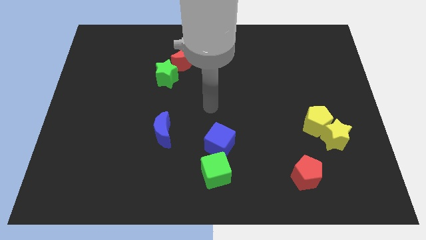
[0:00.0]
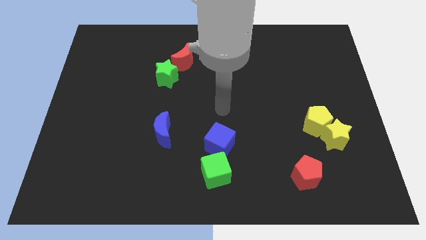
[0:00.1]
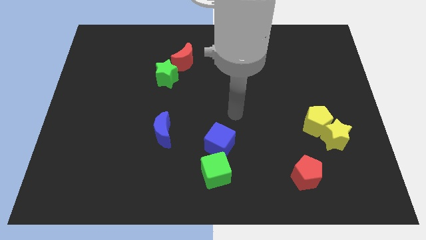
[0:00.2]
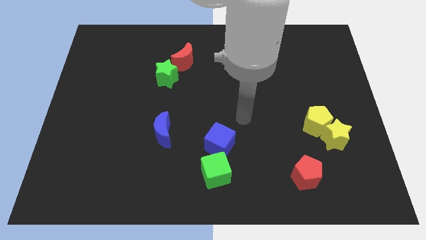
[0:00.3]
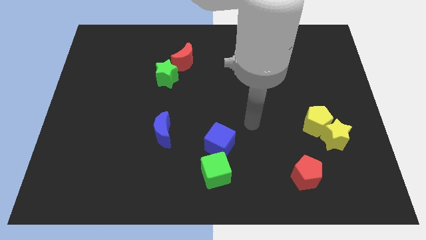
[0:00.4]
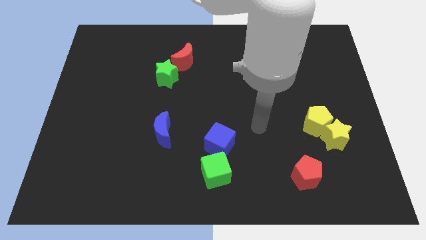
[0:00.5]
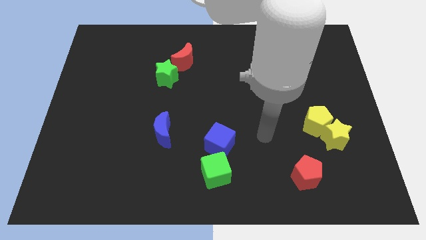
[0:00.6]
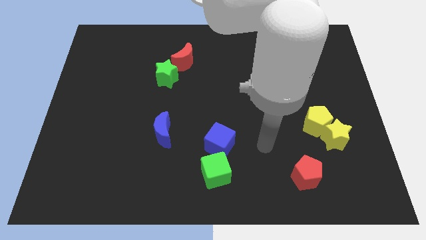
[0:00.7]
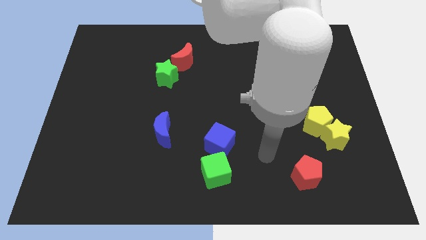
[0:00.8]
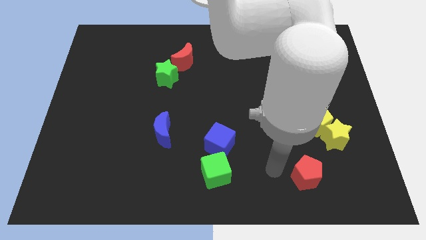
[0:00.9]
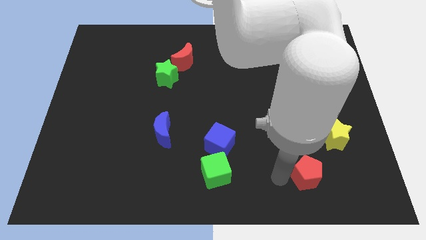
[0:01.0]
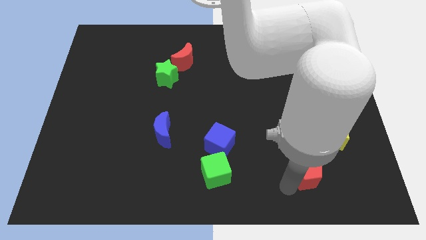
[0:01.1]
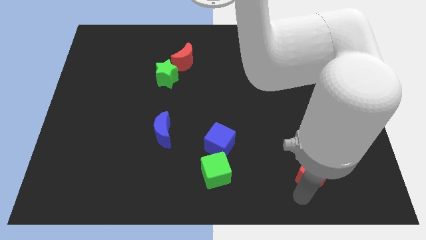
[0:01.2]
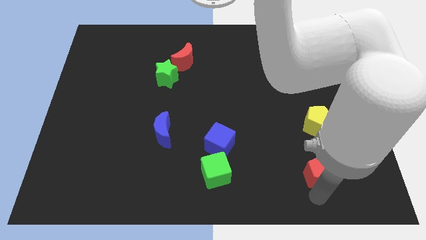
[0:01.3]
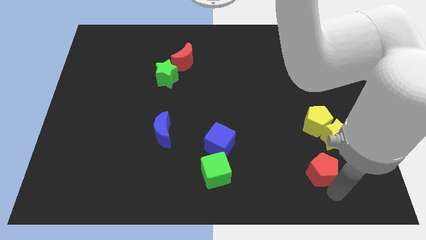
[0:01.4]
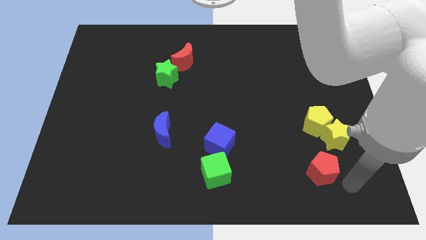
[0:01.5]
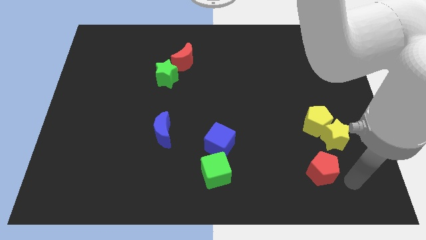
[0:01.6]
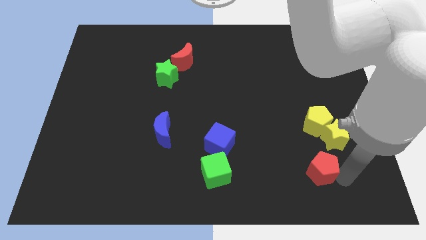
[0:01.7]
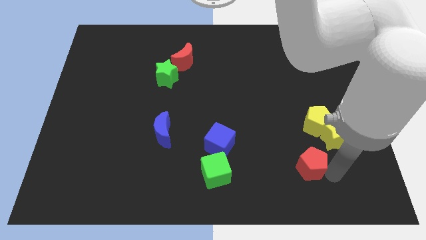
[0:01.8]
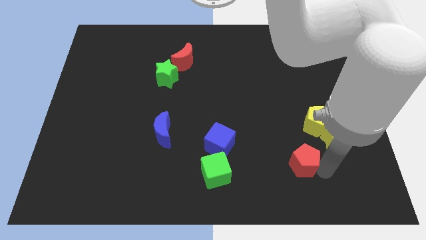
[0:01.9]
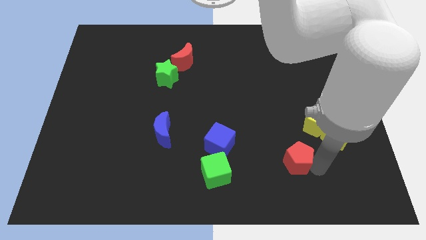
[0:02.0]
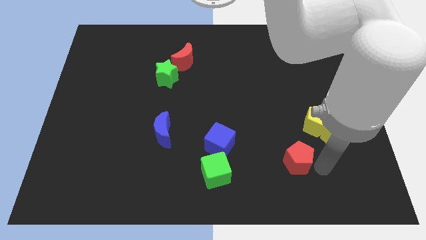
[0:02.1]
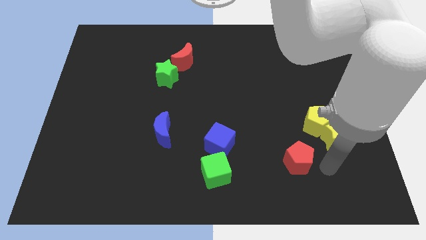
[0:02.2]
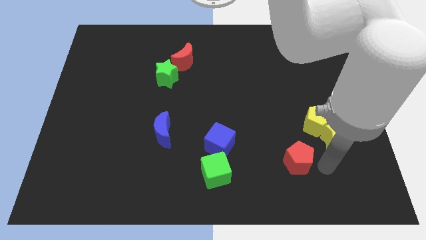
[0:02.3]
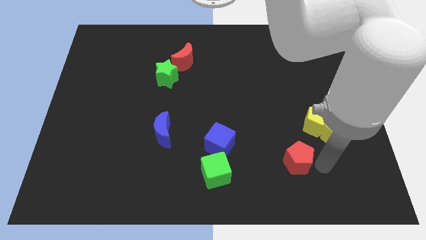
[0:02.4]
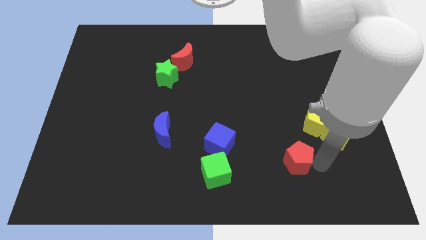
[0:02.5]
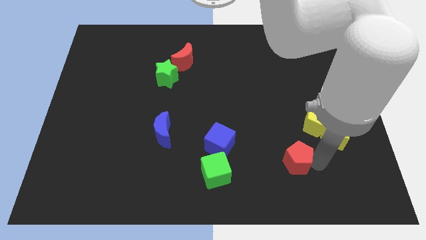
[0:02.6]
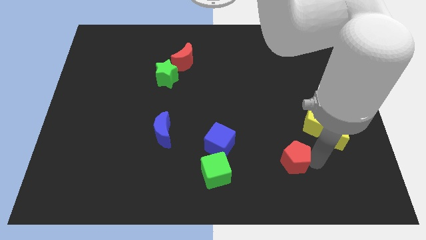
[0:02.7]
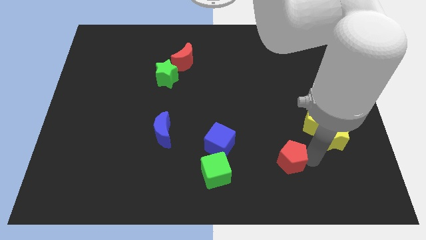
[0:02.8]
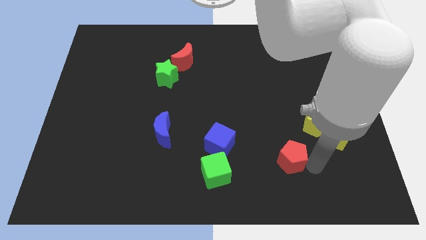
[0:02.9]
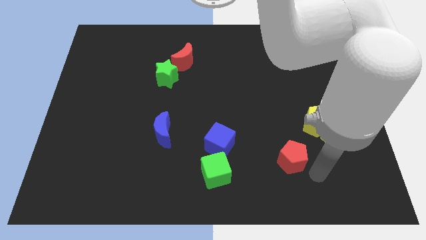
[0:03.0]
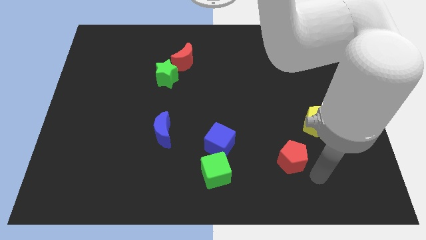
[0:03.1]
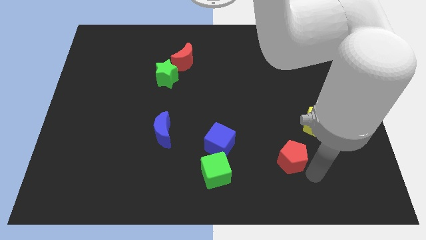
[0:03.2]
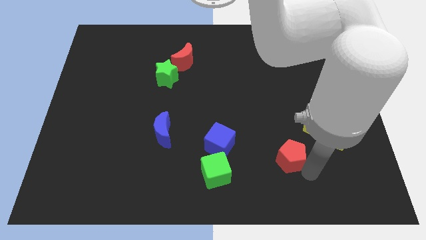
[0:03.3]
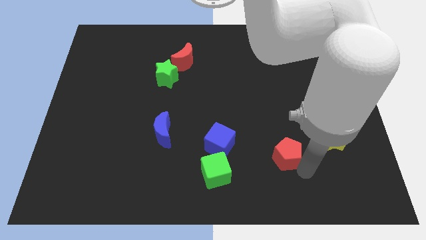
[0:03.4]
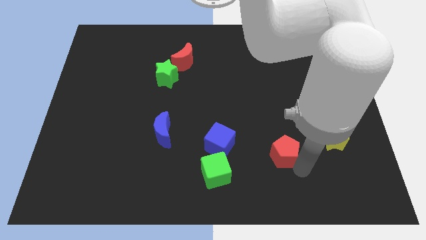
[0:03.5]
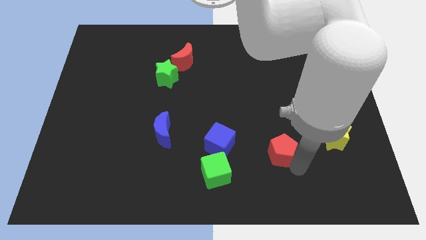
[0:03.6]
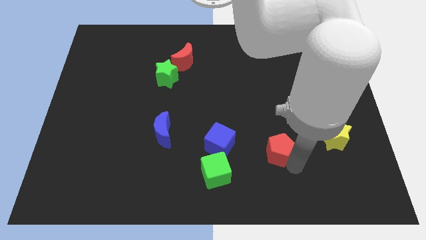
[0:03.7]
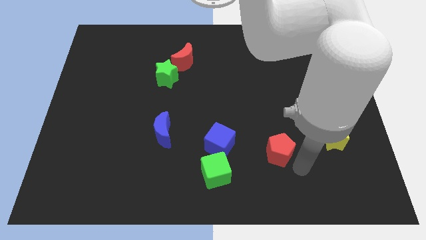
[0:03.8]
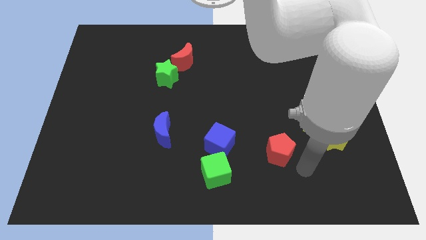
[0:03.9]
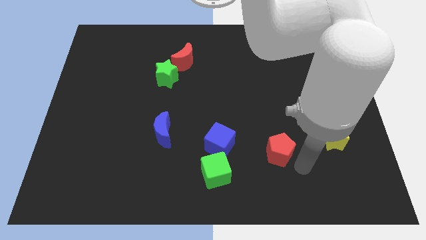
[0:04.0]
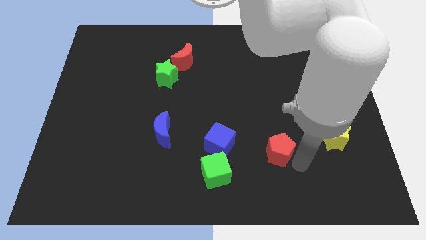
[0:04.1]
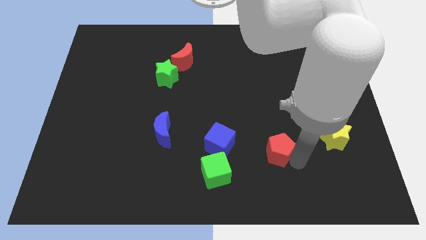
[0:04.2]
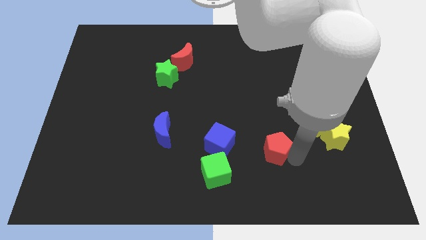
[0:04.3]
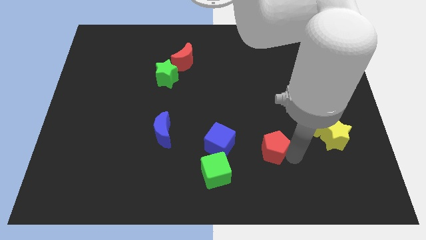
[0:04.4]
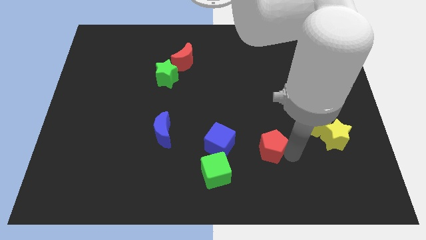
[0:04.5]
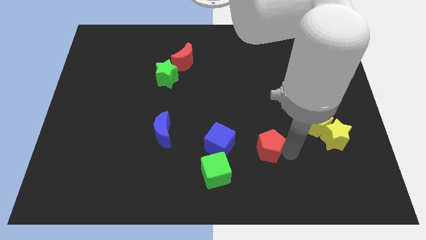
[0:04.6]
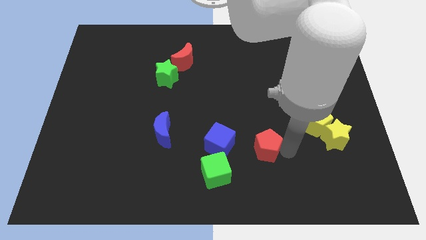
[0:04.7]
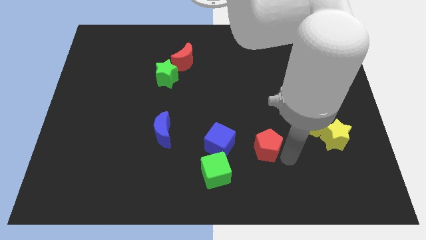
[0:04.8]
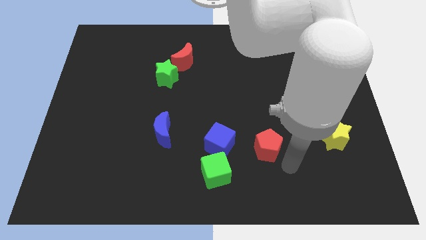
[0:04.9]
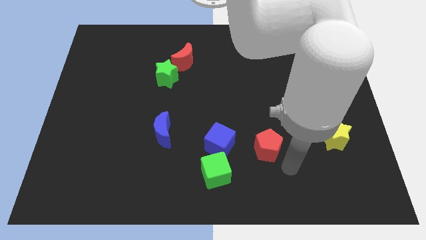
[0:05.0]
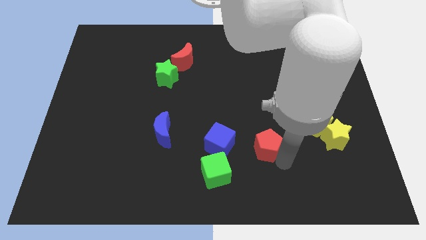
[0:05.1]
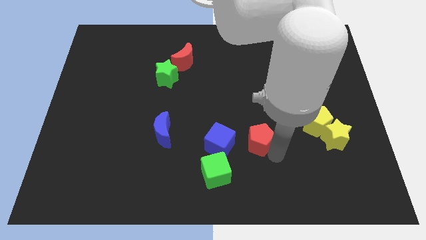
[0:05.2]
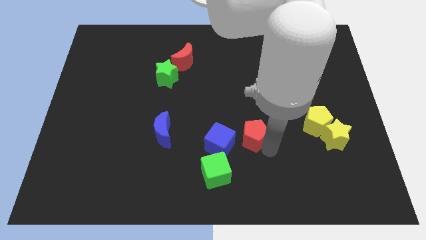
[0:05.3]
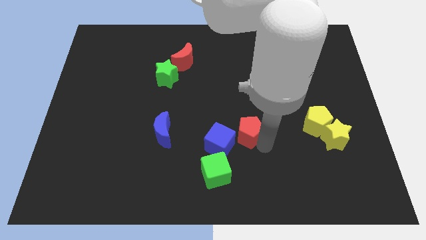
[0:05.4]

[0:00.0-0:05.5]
push the red pentagon to the center

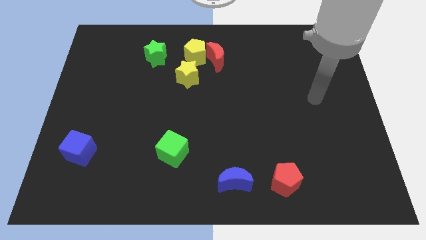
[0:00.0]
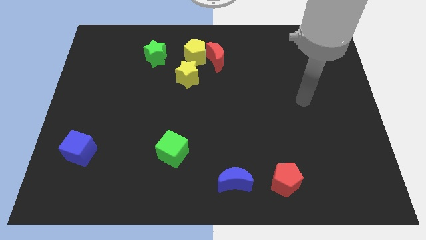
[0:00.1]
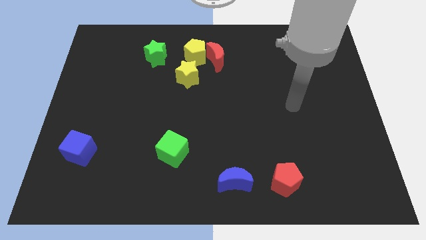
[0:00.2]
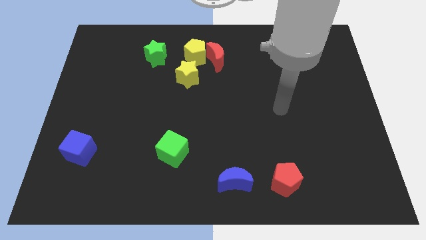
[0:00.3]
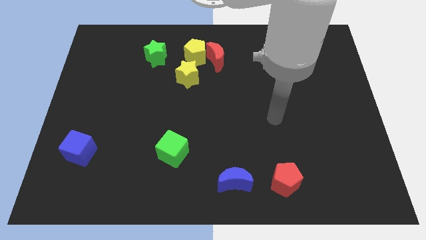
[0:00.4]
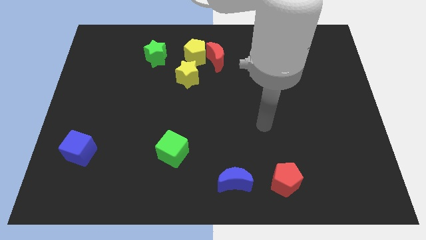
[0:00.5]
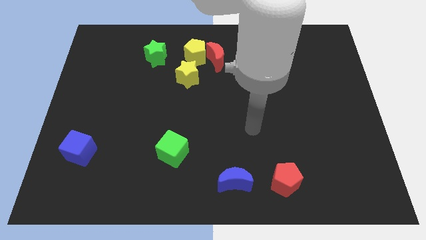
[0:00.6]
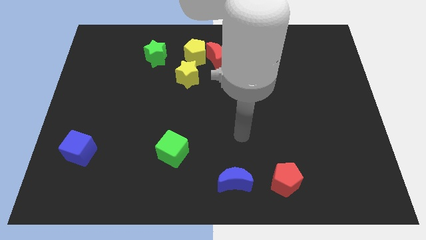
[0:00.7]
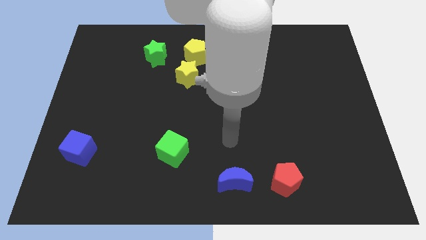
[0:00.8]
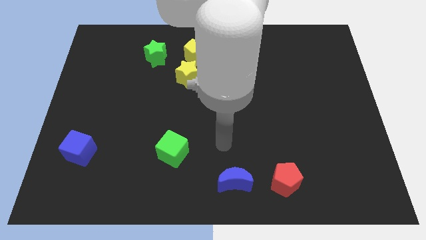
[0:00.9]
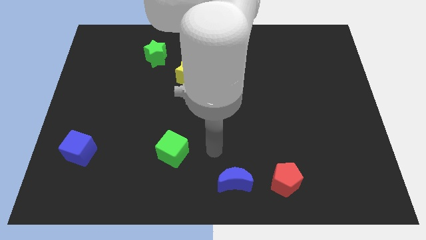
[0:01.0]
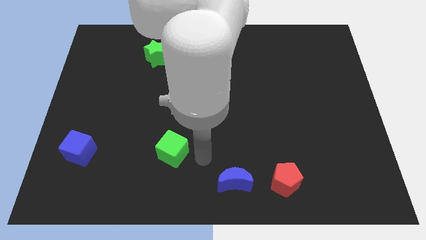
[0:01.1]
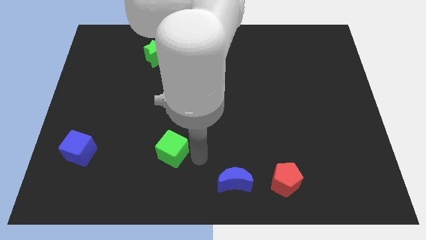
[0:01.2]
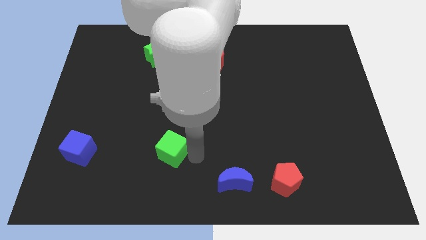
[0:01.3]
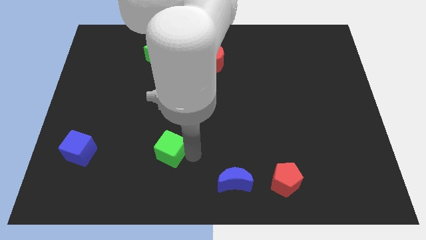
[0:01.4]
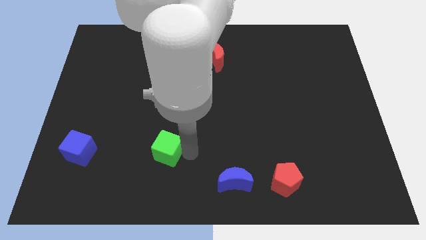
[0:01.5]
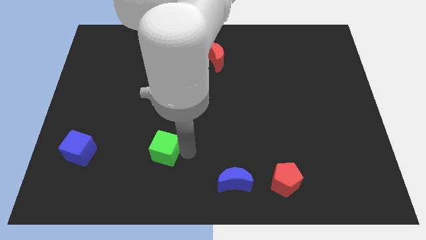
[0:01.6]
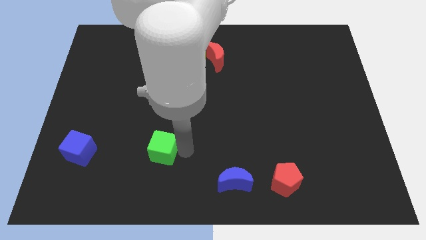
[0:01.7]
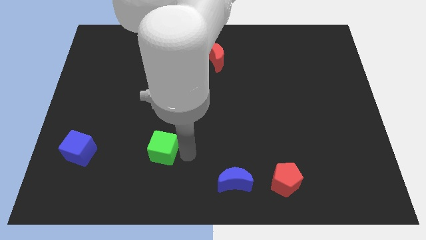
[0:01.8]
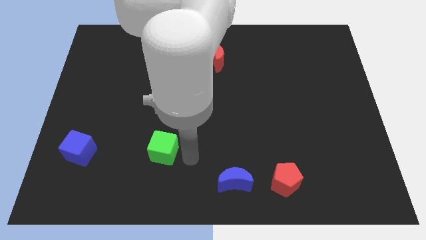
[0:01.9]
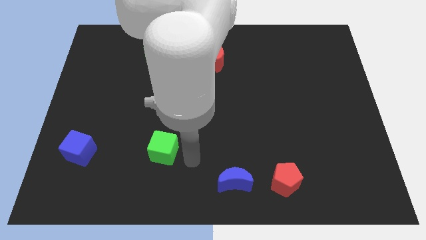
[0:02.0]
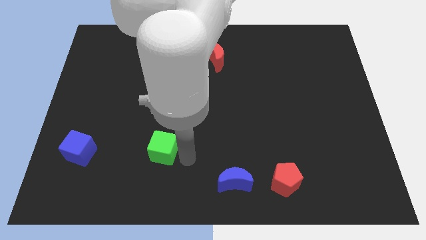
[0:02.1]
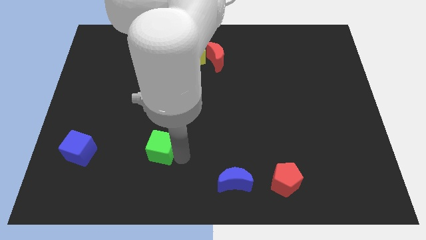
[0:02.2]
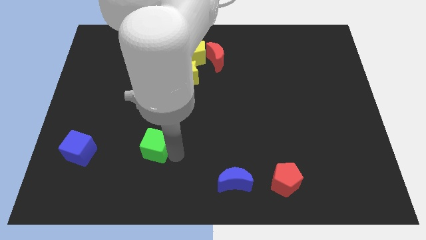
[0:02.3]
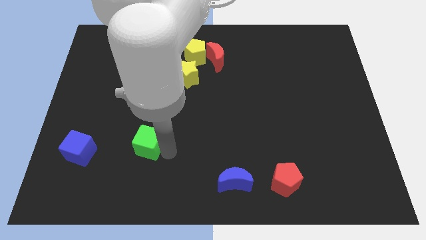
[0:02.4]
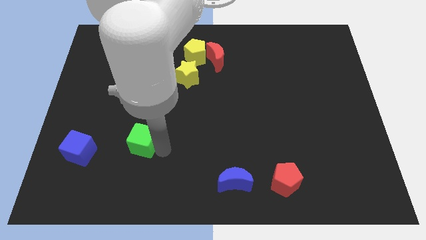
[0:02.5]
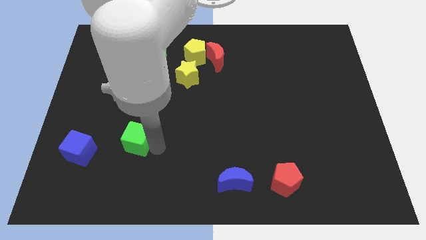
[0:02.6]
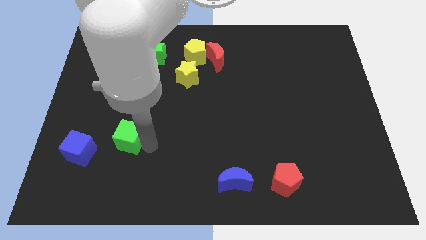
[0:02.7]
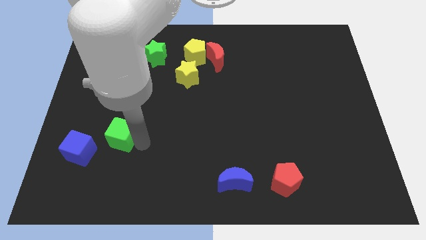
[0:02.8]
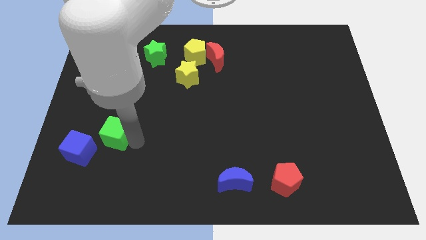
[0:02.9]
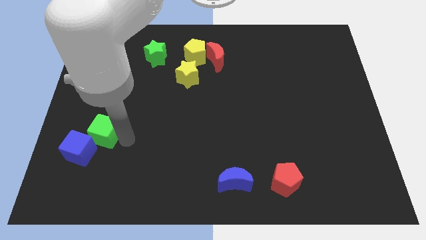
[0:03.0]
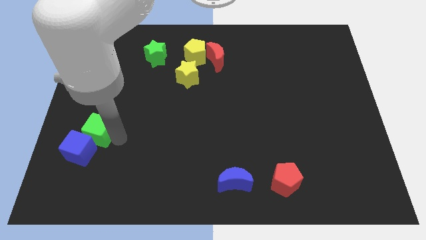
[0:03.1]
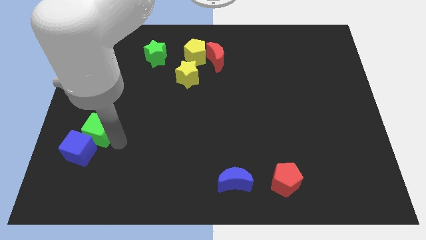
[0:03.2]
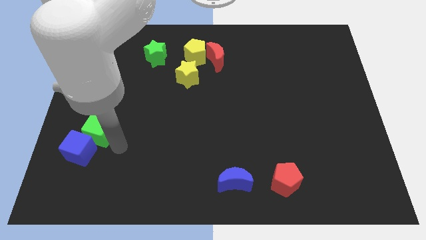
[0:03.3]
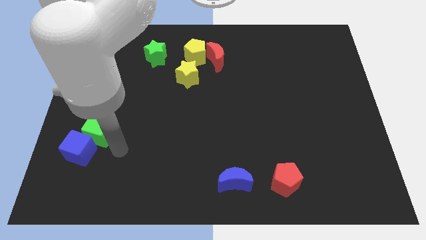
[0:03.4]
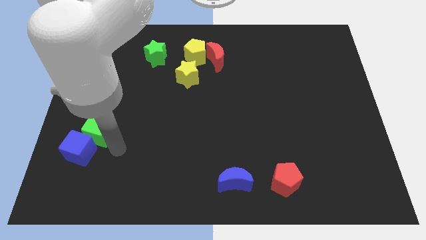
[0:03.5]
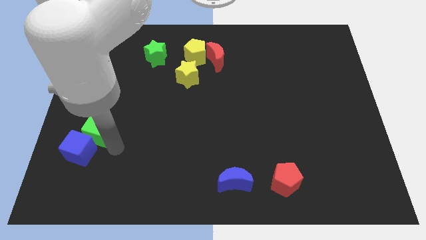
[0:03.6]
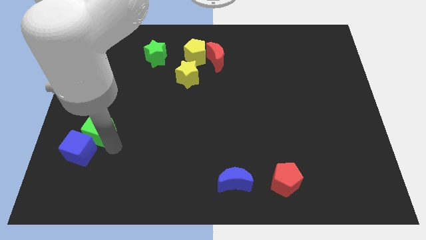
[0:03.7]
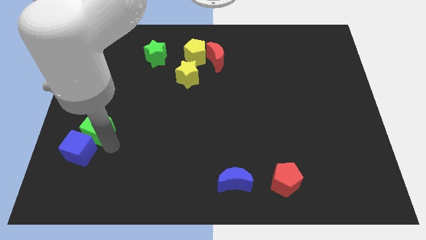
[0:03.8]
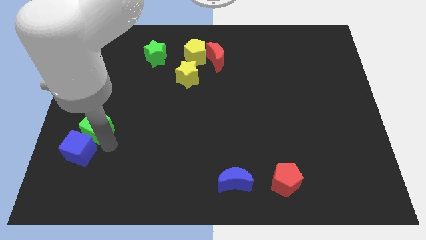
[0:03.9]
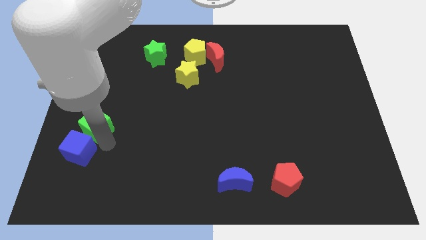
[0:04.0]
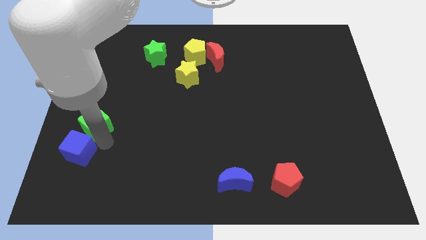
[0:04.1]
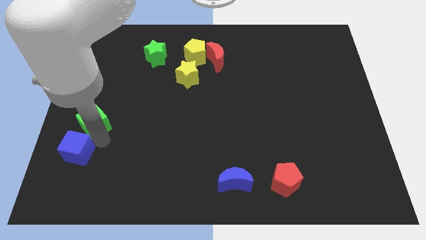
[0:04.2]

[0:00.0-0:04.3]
move the green cube to the left side
